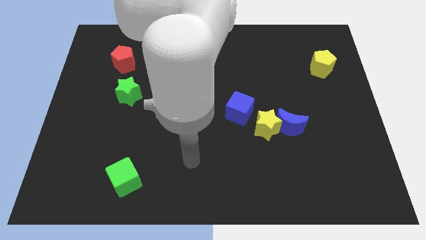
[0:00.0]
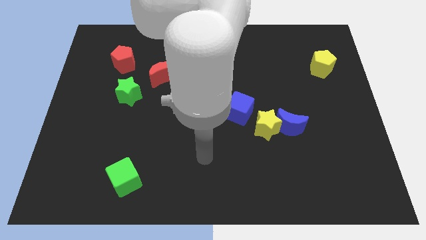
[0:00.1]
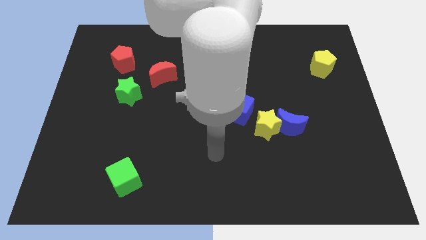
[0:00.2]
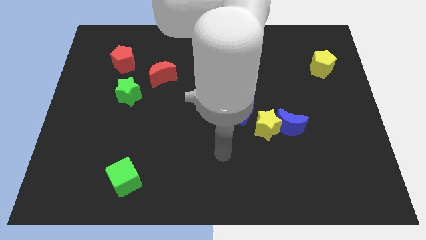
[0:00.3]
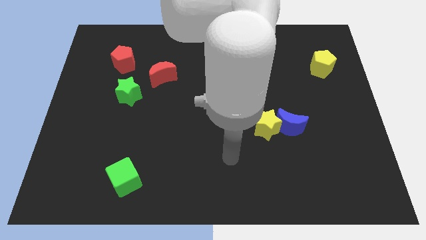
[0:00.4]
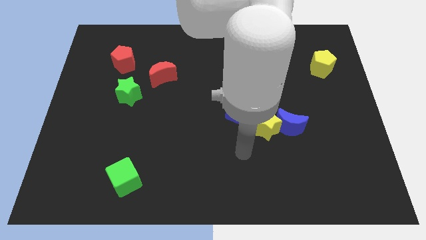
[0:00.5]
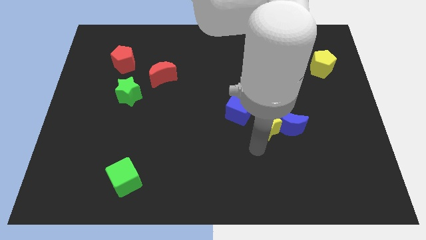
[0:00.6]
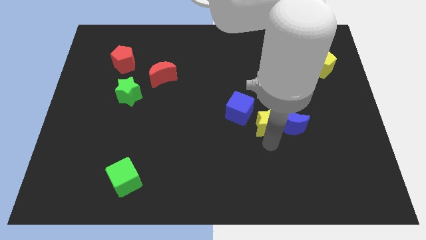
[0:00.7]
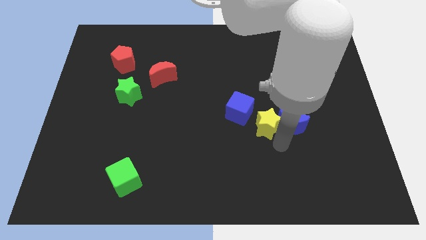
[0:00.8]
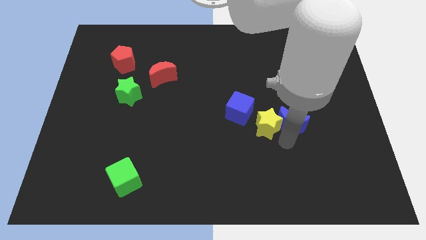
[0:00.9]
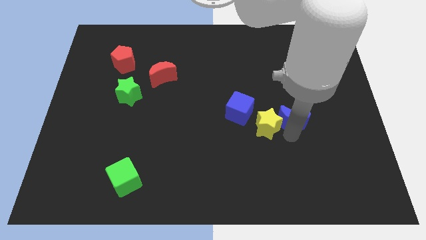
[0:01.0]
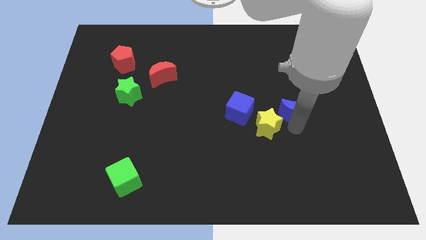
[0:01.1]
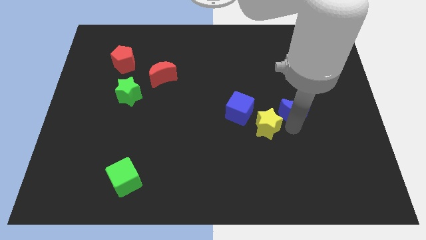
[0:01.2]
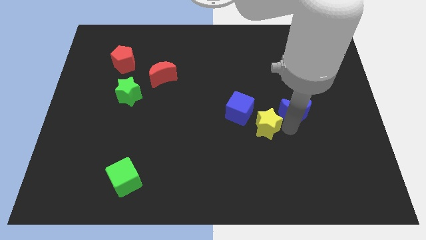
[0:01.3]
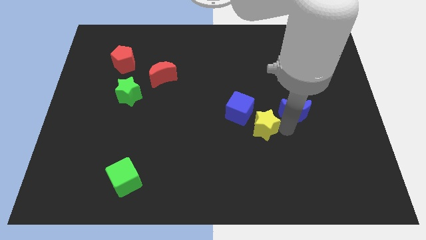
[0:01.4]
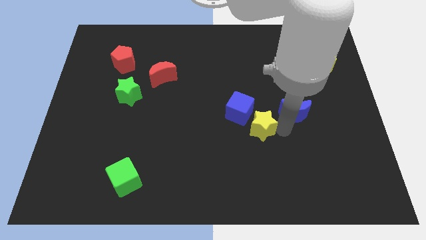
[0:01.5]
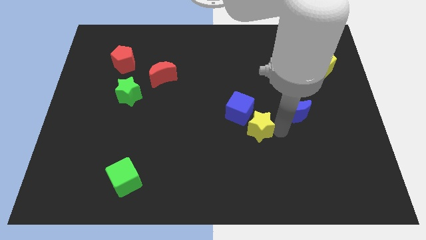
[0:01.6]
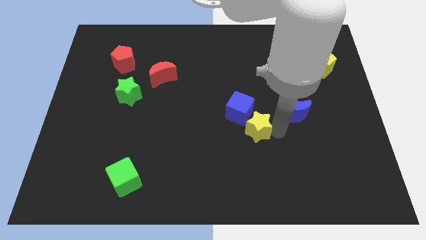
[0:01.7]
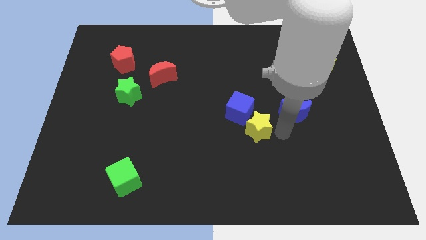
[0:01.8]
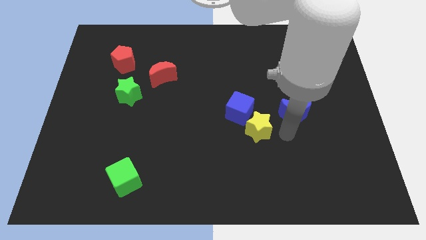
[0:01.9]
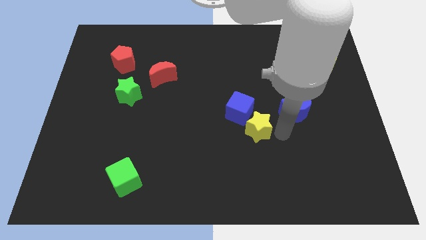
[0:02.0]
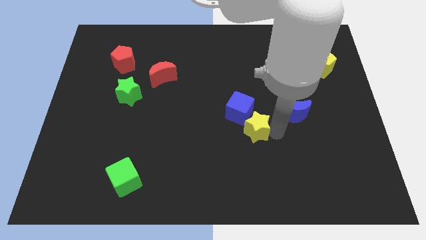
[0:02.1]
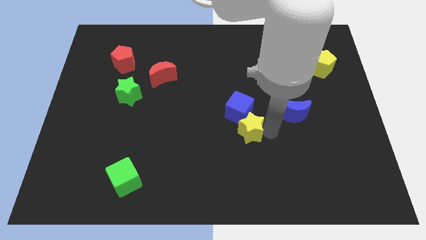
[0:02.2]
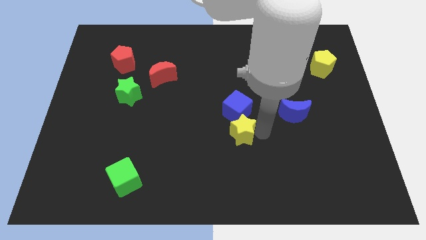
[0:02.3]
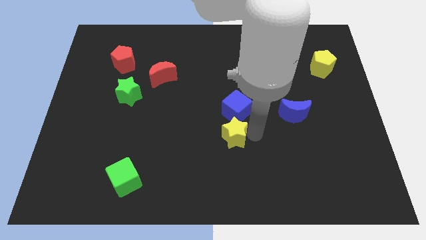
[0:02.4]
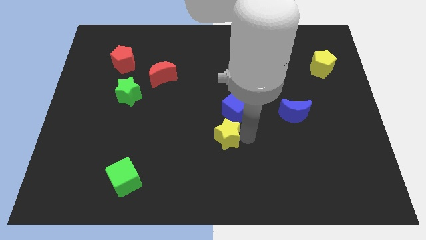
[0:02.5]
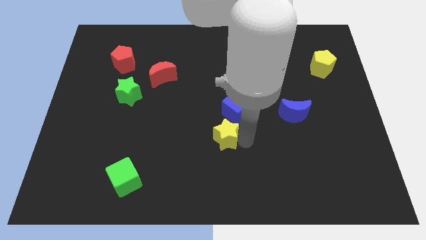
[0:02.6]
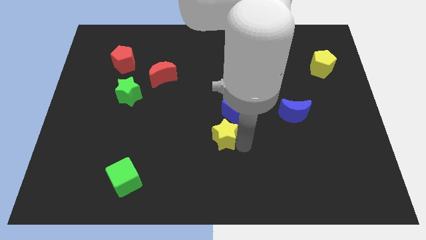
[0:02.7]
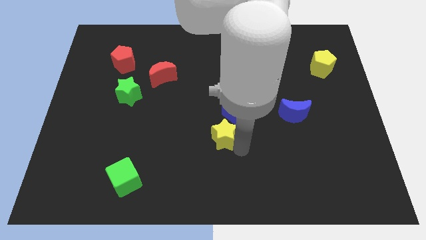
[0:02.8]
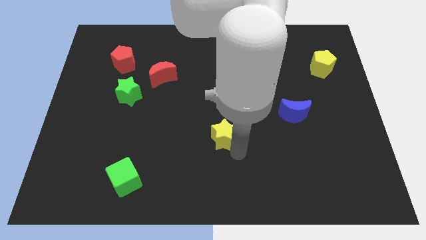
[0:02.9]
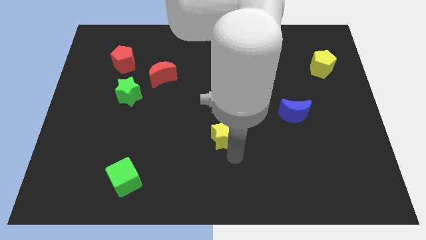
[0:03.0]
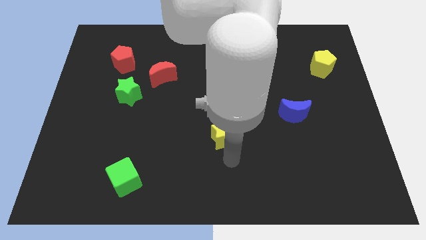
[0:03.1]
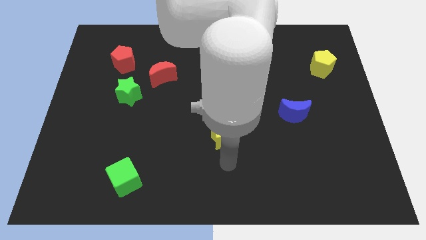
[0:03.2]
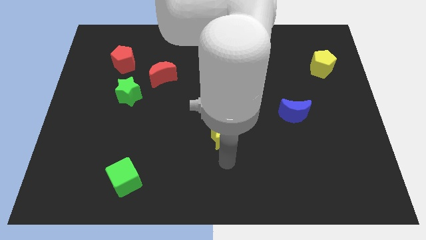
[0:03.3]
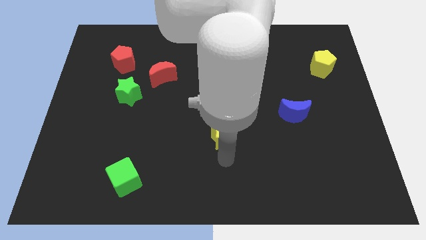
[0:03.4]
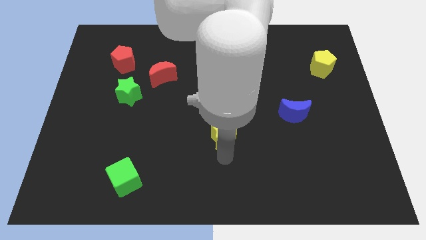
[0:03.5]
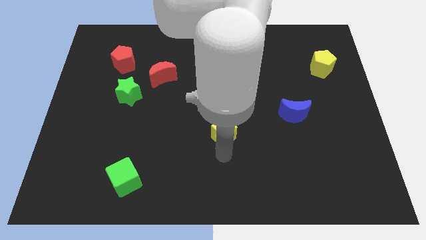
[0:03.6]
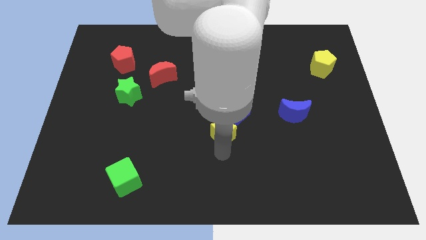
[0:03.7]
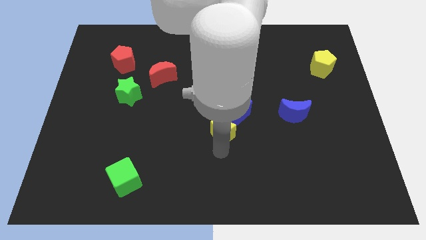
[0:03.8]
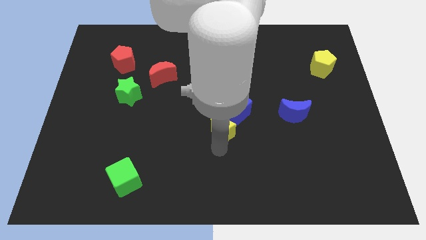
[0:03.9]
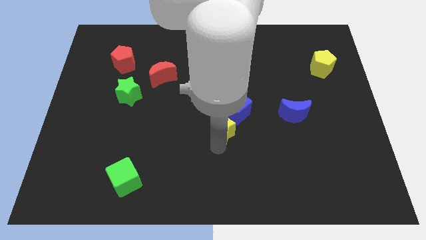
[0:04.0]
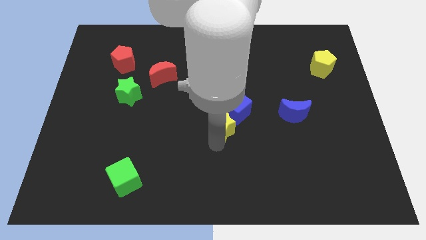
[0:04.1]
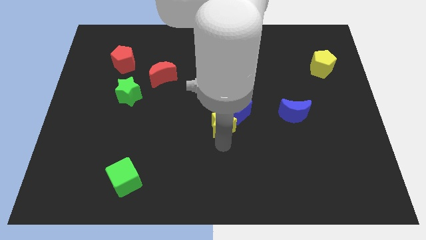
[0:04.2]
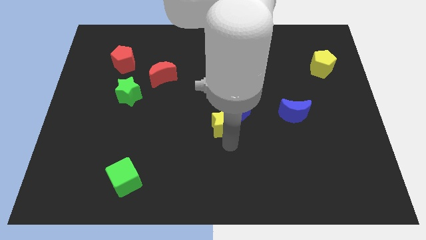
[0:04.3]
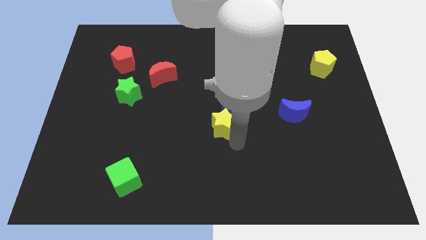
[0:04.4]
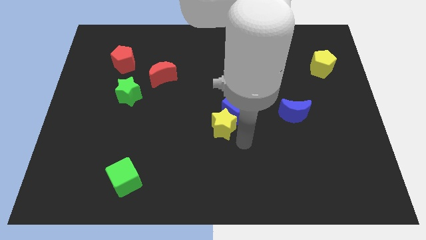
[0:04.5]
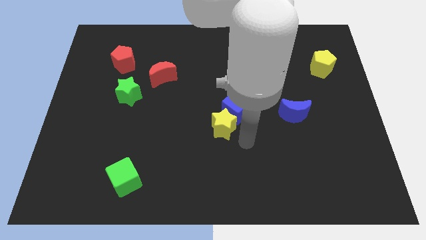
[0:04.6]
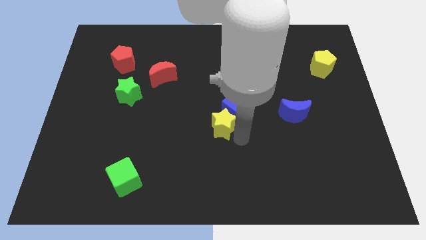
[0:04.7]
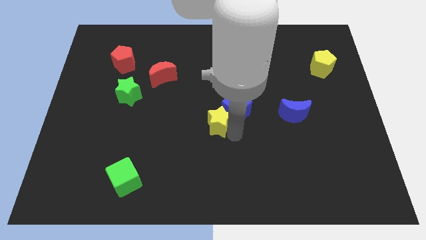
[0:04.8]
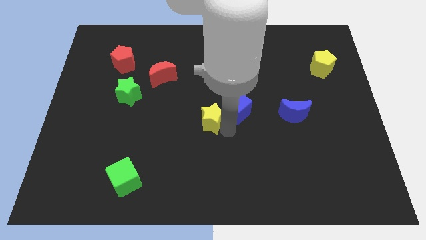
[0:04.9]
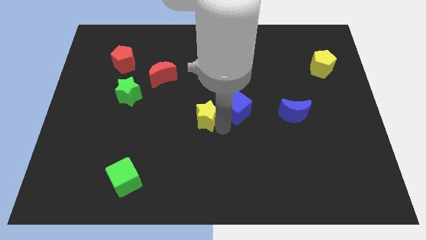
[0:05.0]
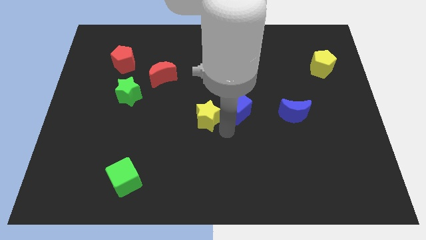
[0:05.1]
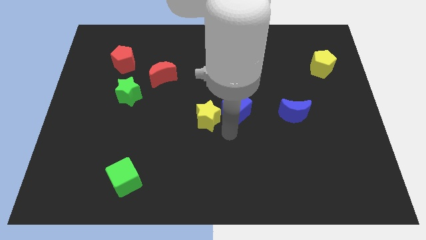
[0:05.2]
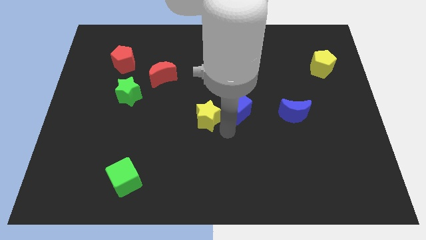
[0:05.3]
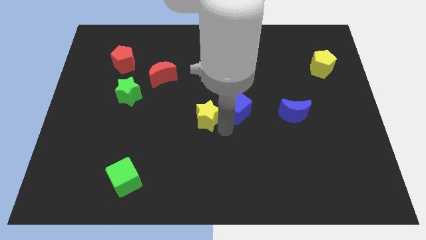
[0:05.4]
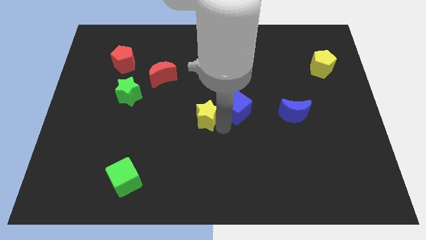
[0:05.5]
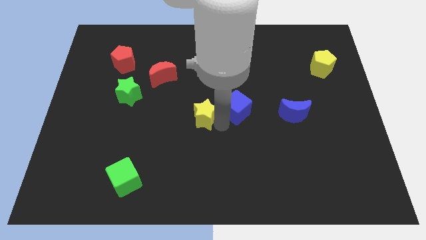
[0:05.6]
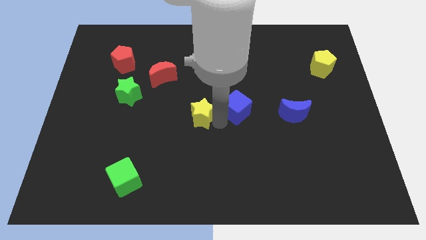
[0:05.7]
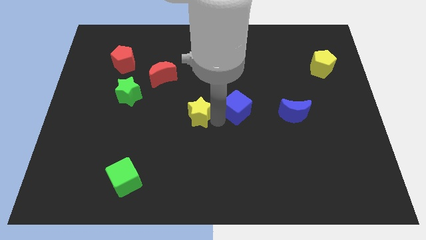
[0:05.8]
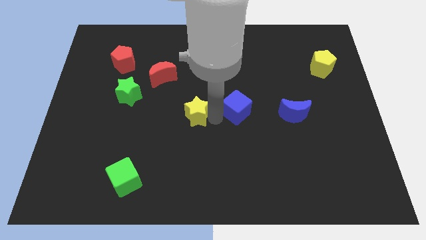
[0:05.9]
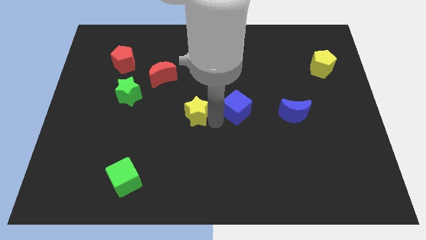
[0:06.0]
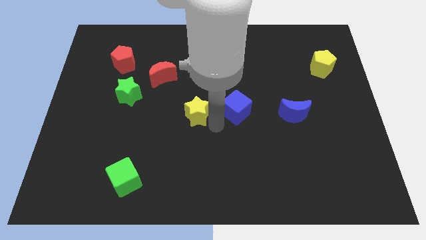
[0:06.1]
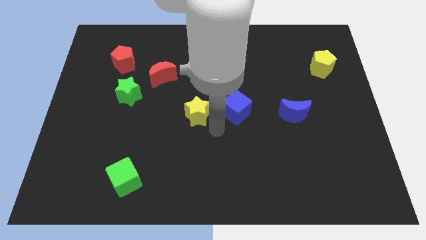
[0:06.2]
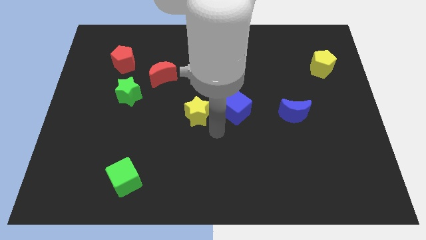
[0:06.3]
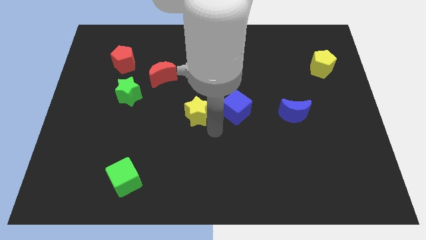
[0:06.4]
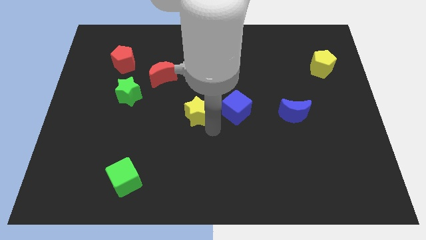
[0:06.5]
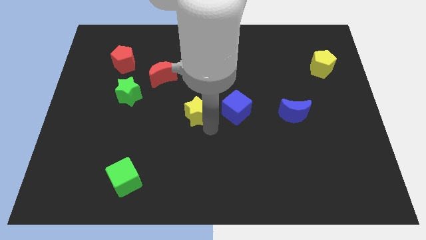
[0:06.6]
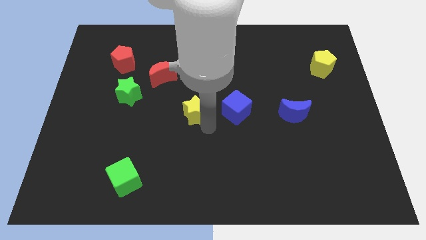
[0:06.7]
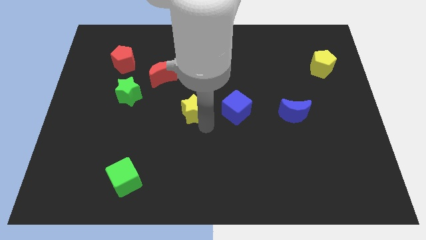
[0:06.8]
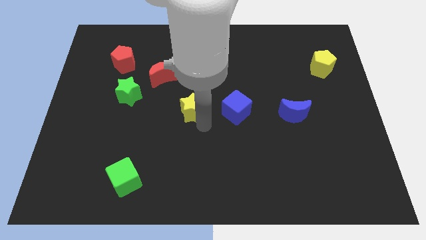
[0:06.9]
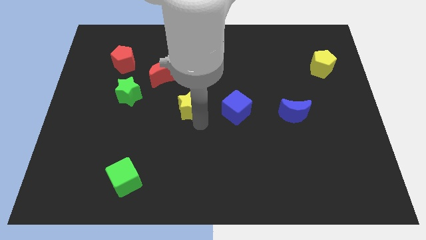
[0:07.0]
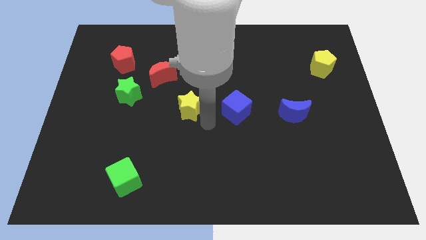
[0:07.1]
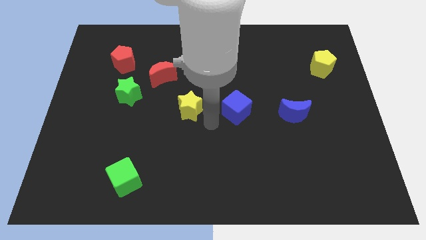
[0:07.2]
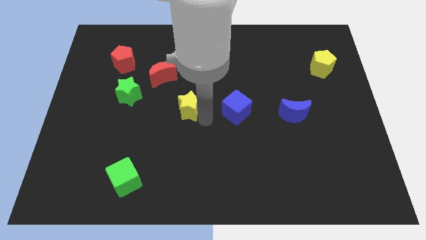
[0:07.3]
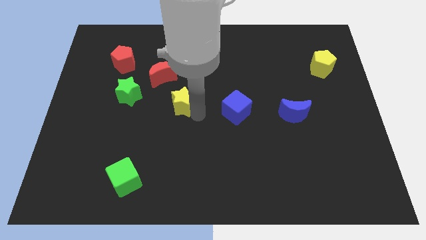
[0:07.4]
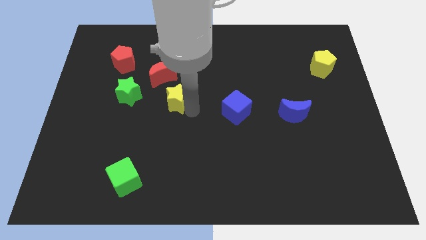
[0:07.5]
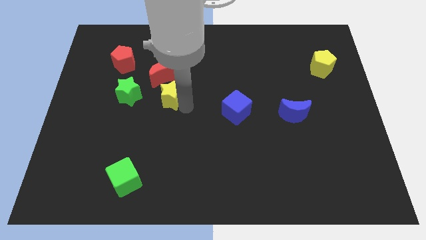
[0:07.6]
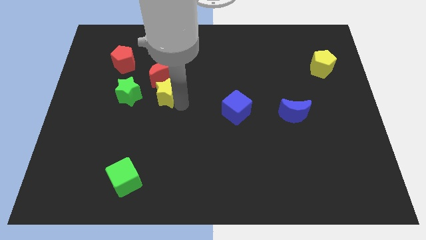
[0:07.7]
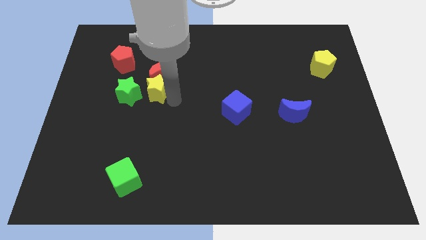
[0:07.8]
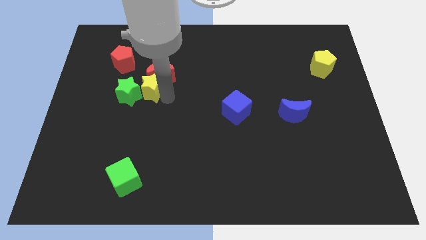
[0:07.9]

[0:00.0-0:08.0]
move the yellow star to the bottom right side of the red pentagon
